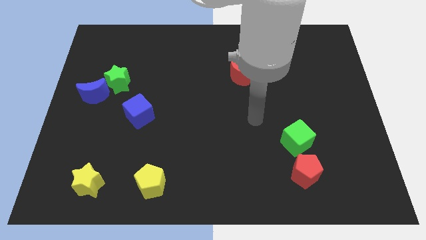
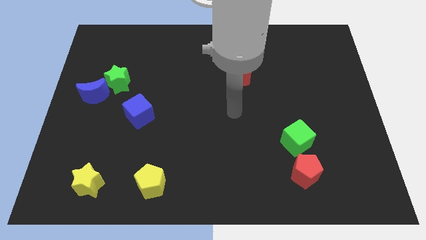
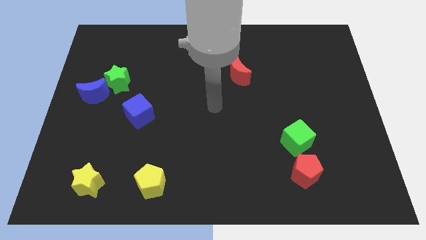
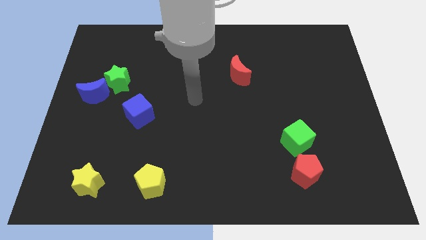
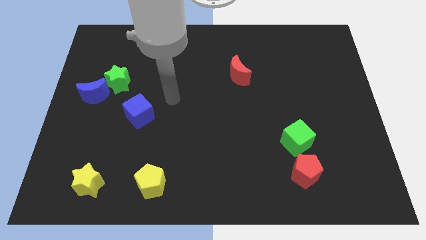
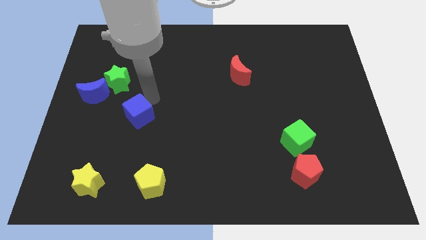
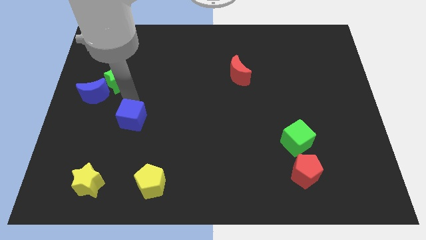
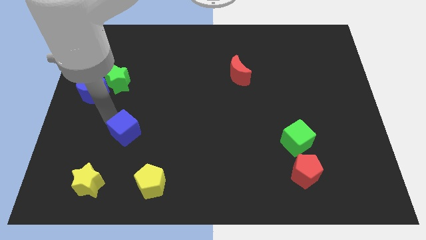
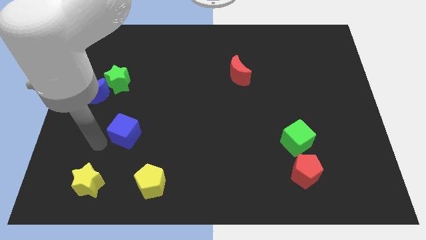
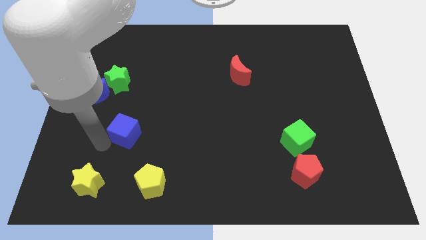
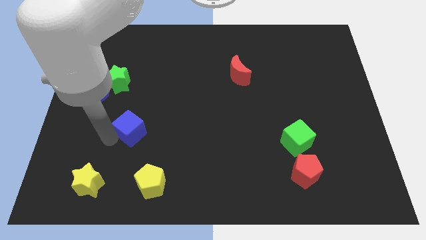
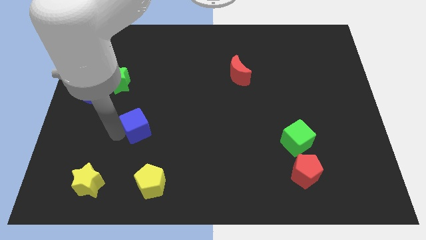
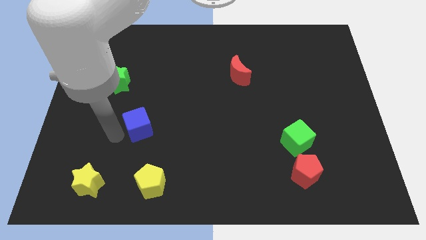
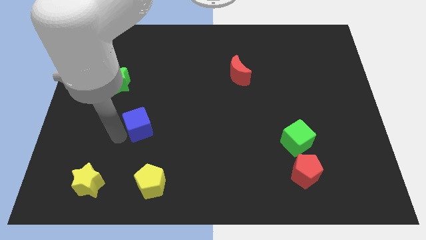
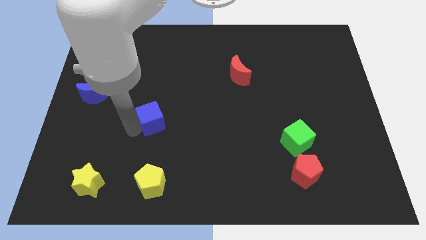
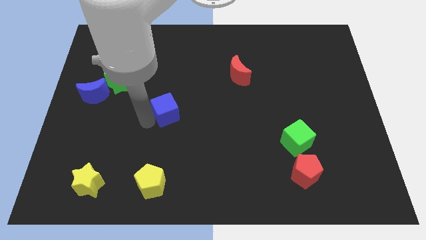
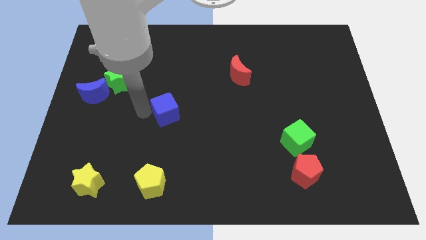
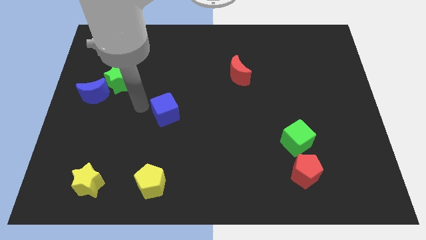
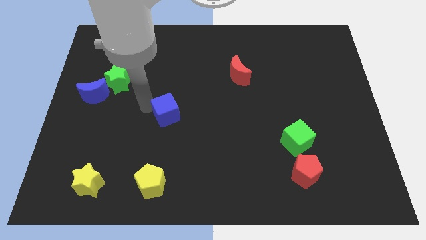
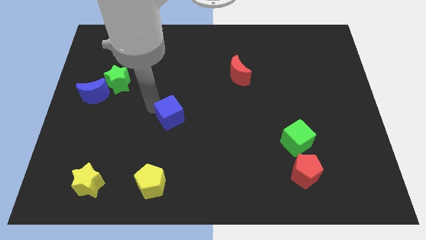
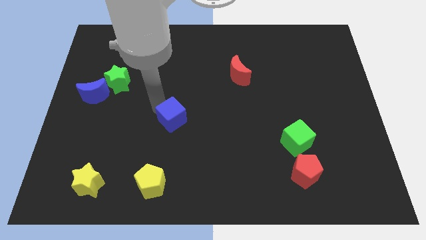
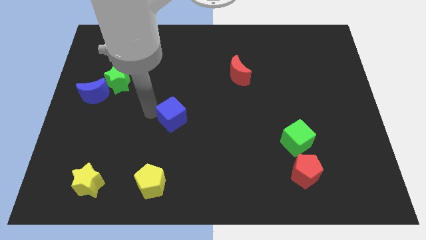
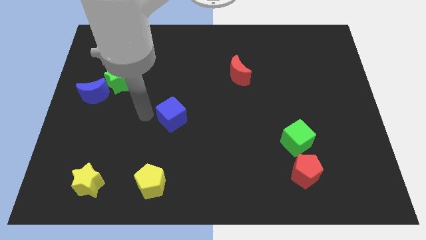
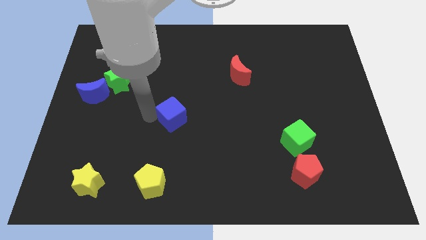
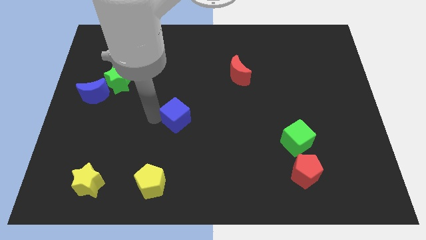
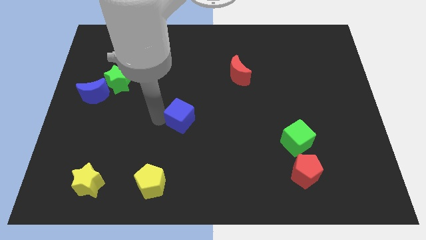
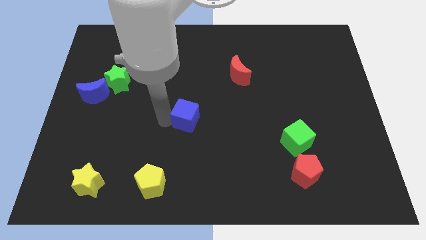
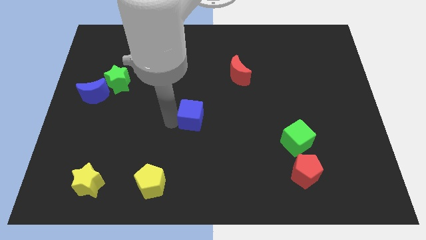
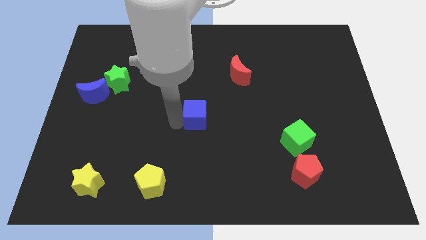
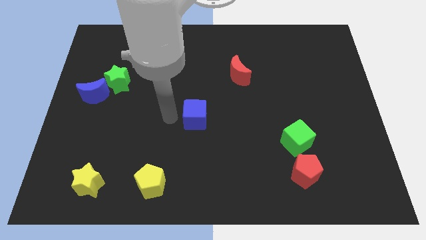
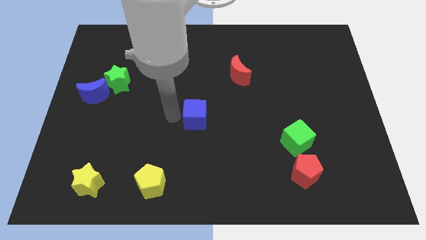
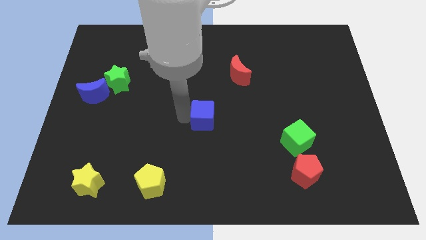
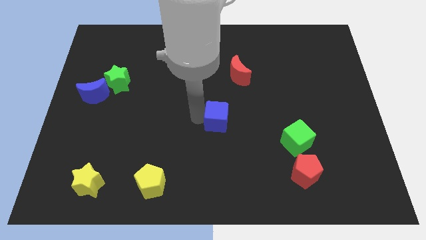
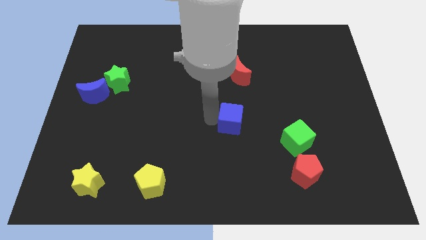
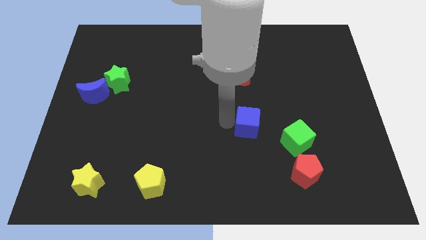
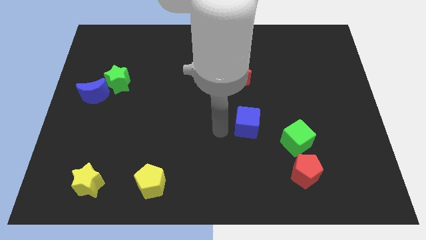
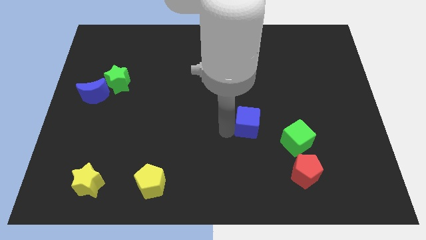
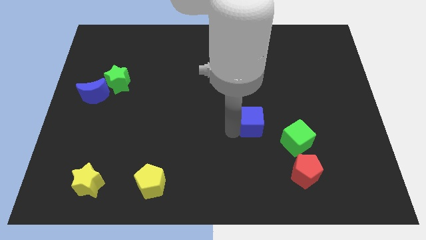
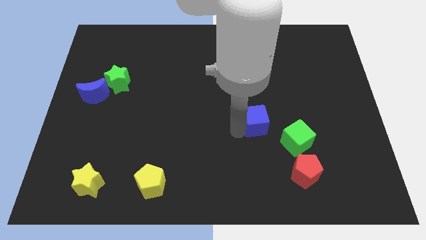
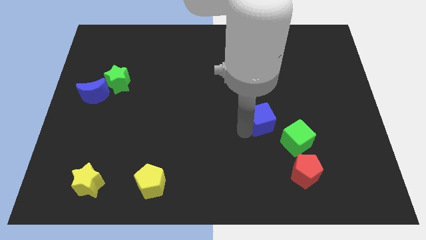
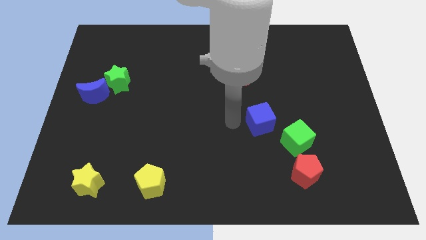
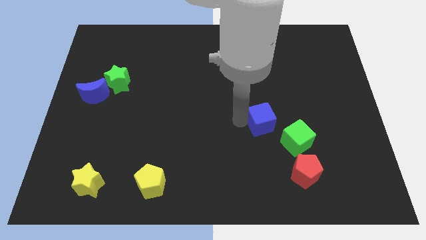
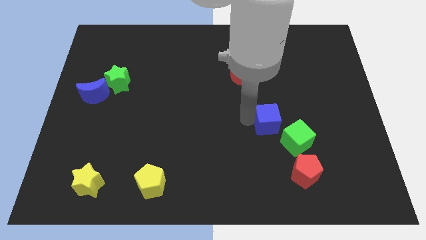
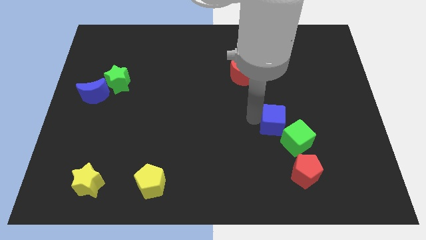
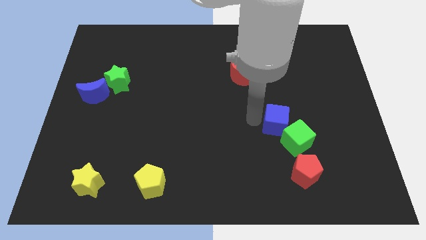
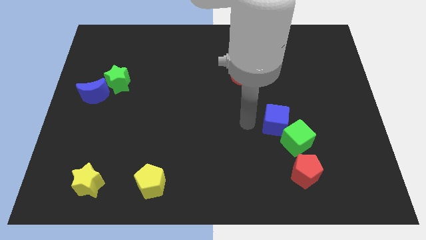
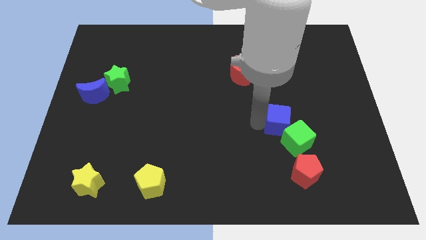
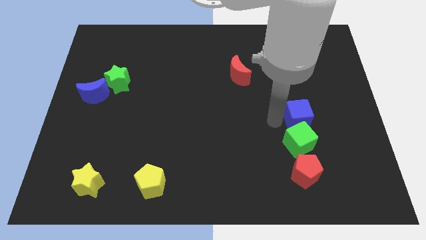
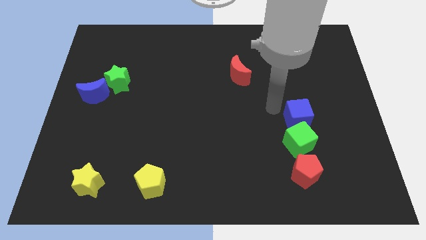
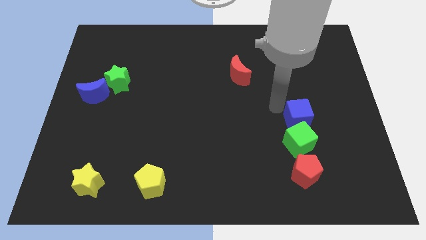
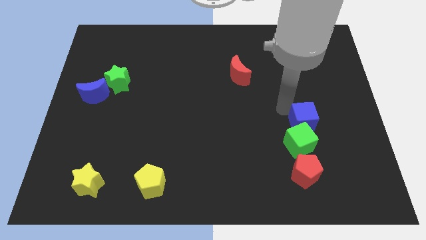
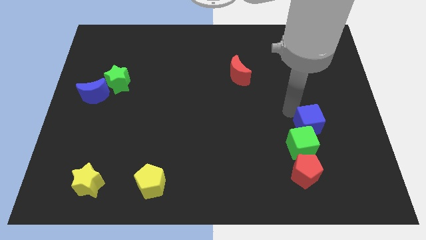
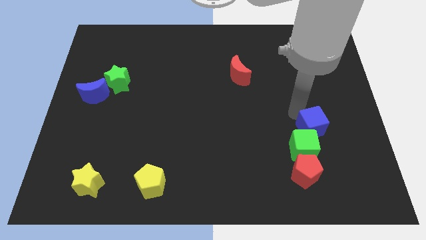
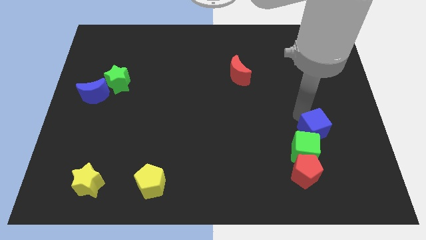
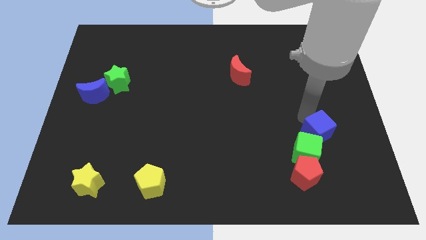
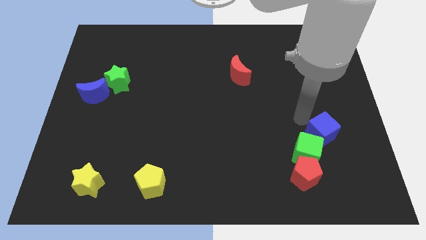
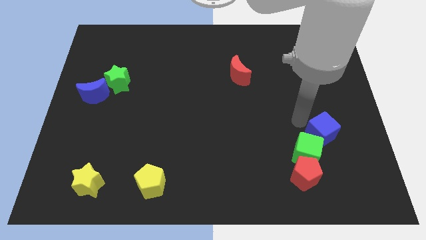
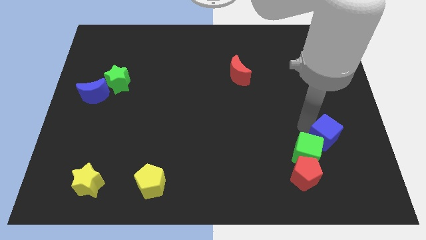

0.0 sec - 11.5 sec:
put the blue cube just right of the green cube

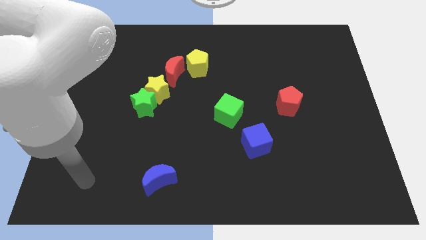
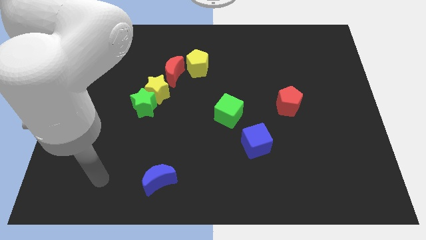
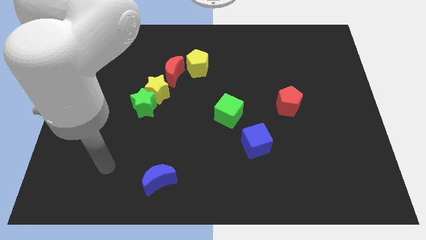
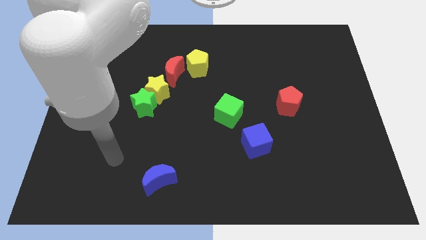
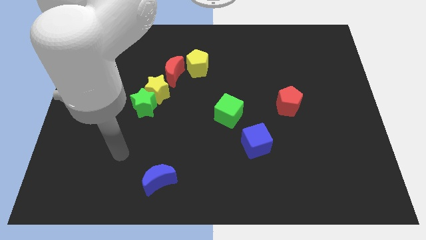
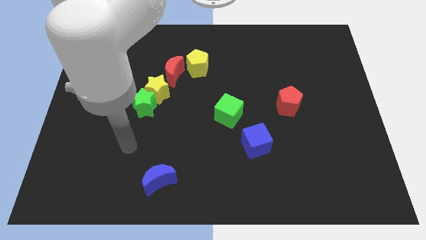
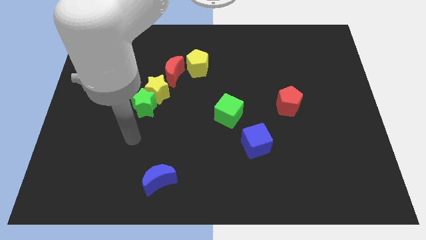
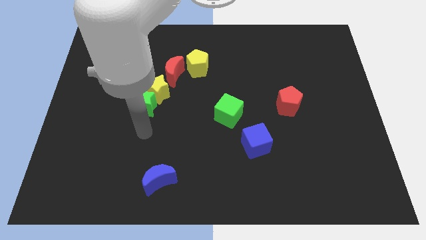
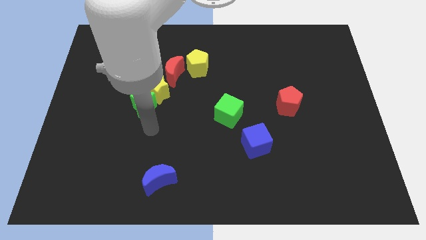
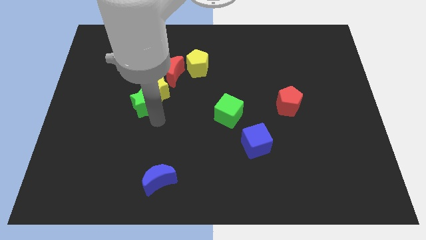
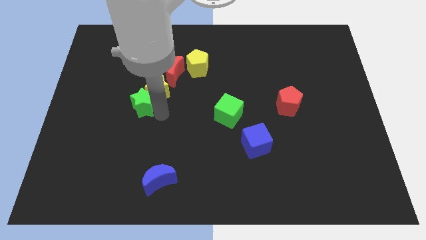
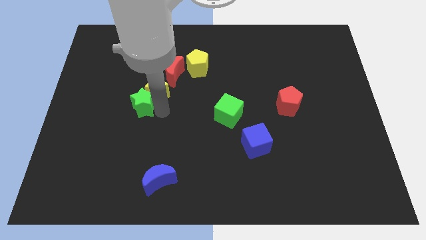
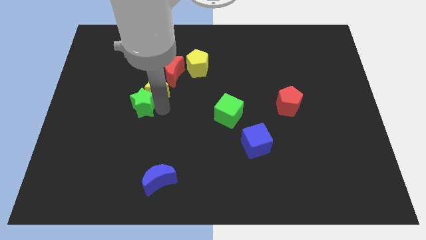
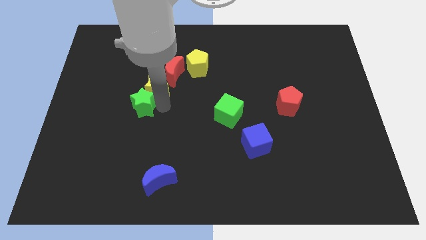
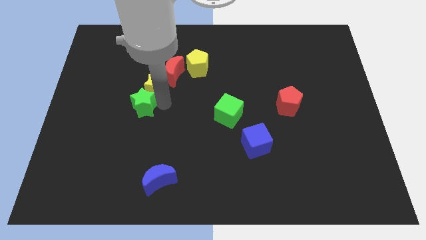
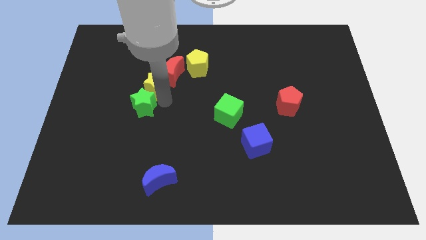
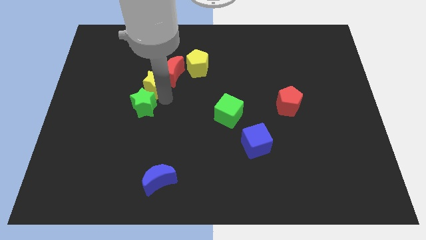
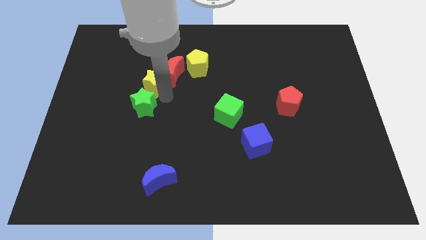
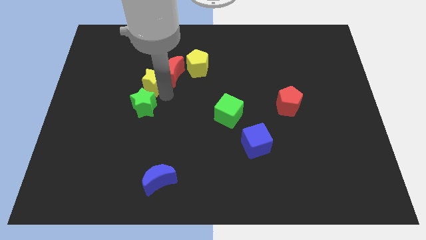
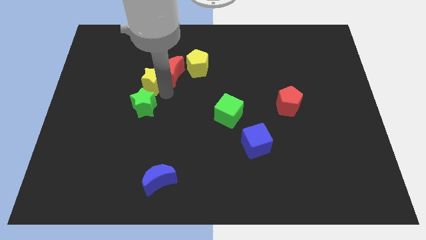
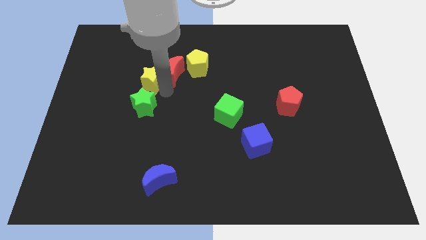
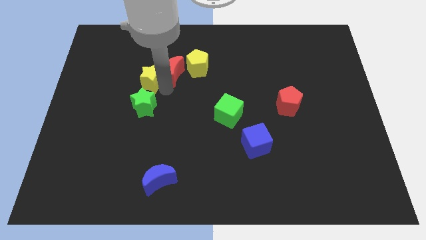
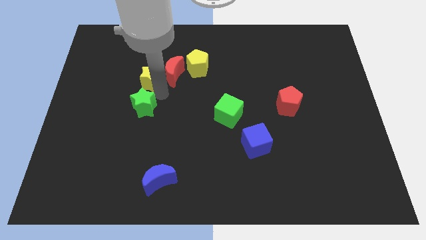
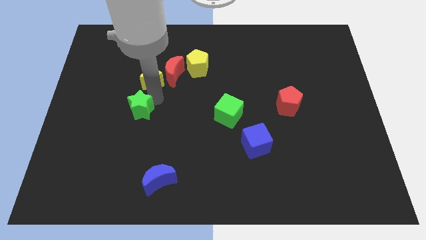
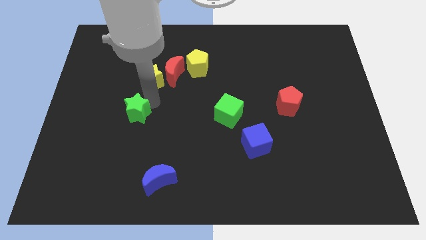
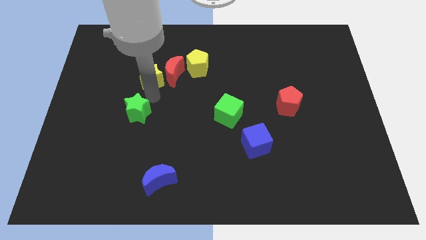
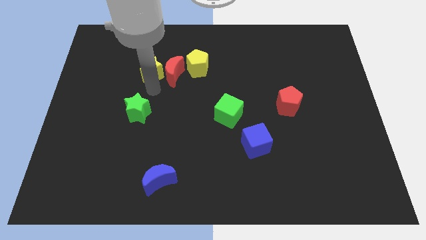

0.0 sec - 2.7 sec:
move the yellow star diagonally up and to the left of the red moon
